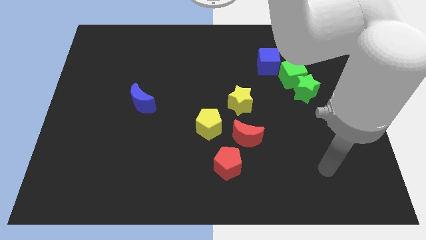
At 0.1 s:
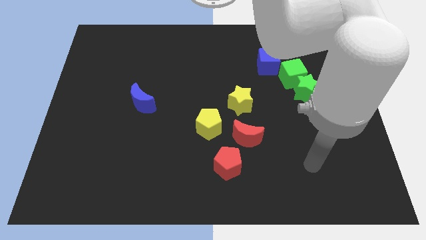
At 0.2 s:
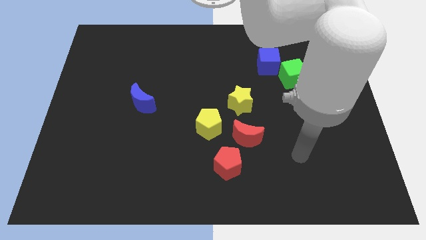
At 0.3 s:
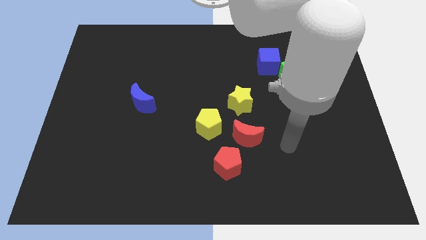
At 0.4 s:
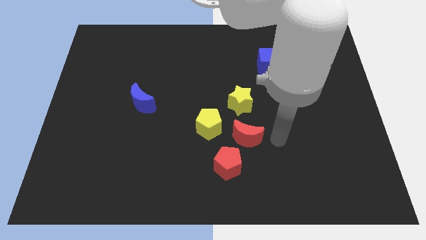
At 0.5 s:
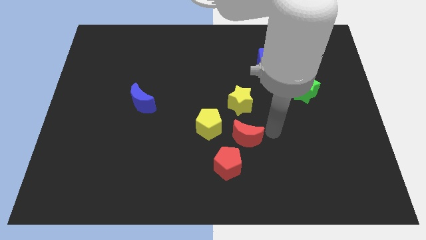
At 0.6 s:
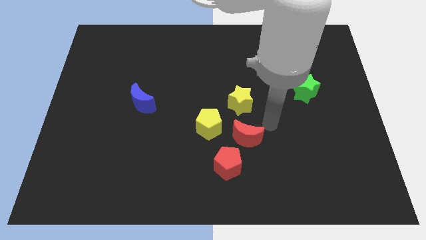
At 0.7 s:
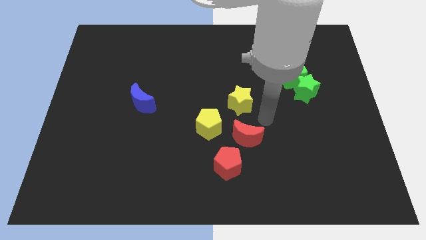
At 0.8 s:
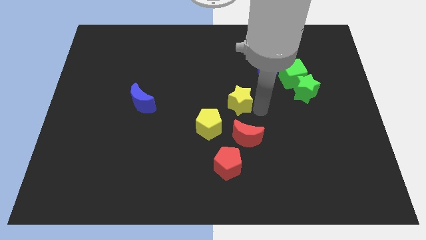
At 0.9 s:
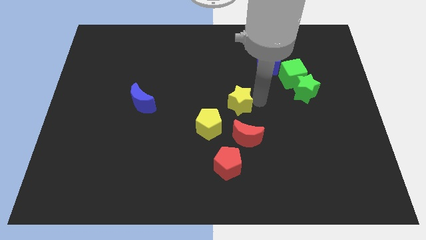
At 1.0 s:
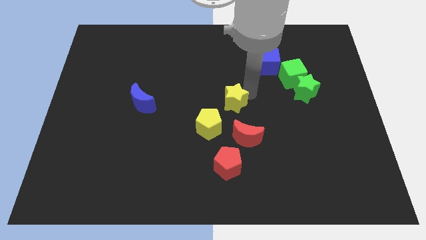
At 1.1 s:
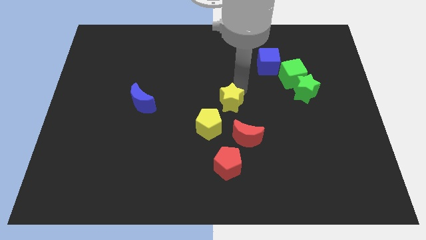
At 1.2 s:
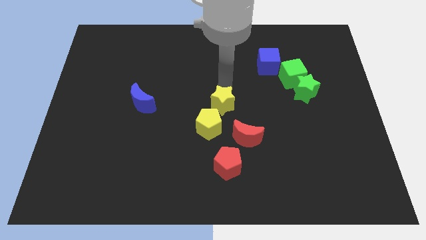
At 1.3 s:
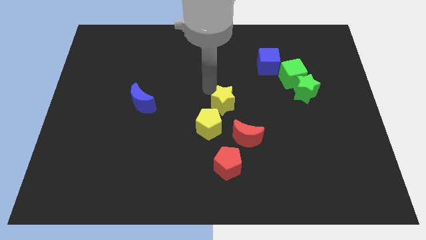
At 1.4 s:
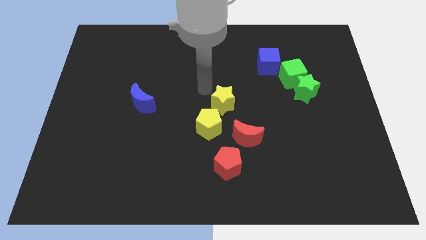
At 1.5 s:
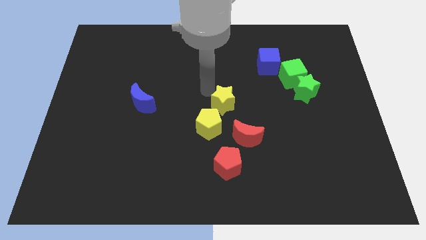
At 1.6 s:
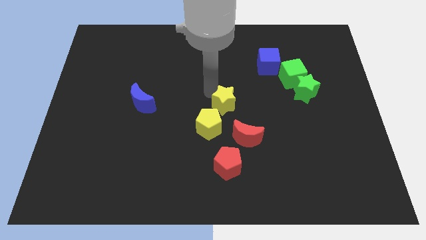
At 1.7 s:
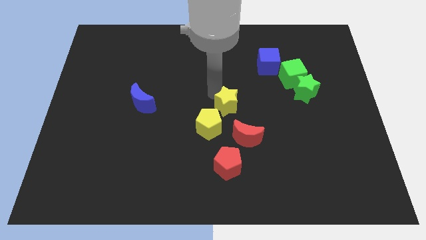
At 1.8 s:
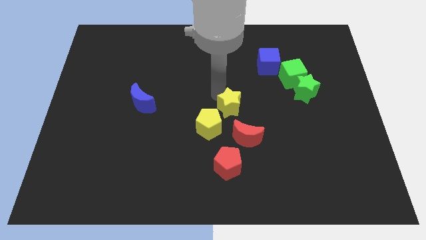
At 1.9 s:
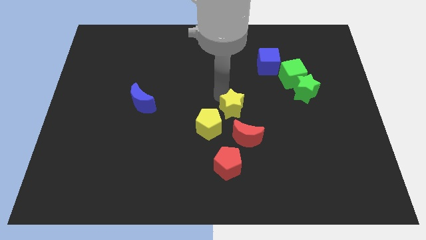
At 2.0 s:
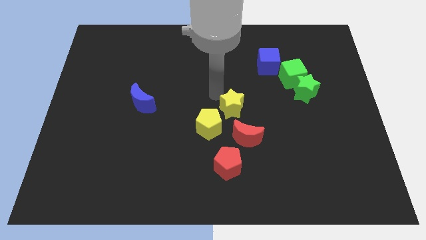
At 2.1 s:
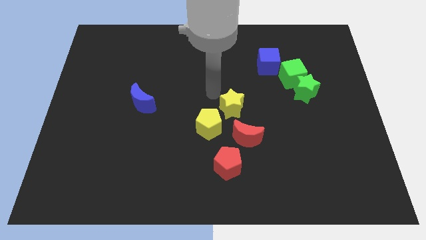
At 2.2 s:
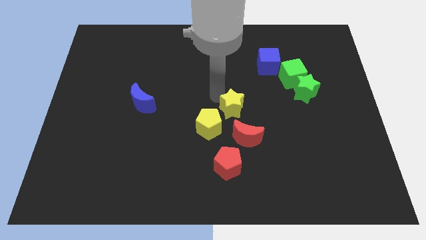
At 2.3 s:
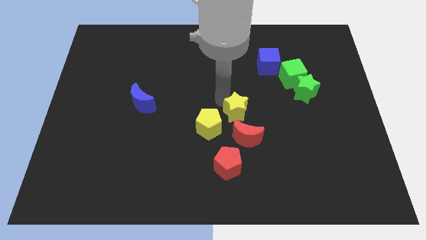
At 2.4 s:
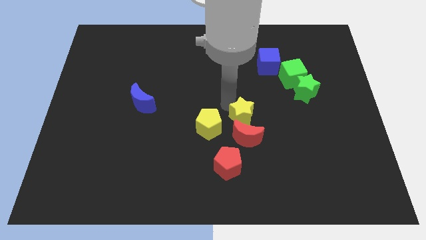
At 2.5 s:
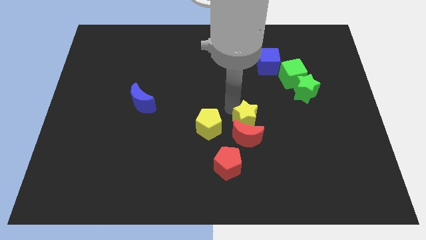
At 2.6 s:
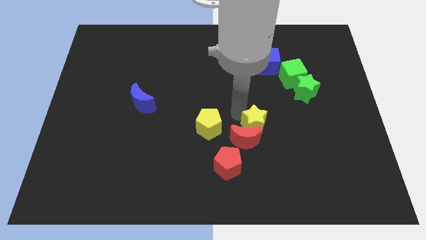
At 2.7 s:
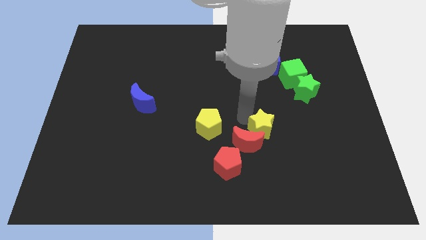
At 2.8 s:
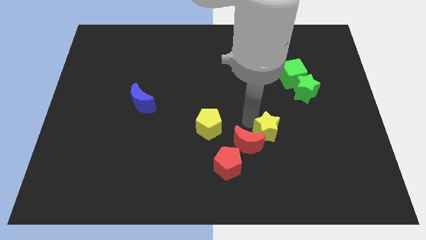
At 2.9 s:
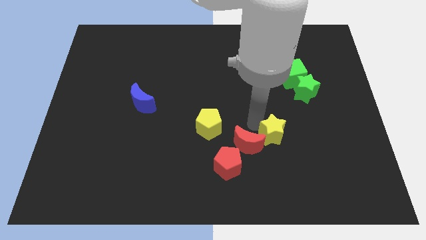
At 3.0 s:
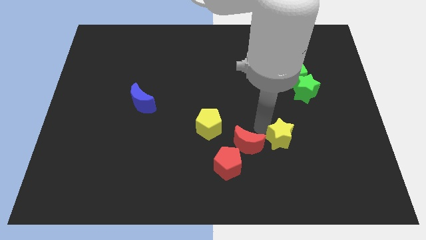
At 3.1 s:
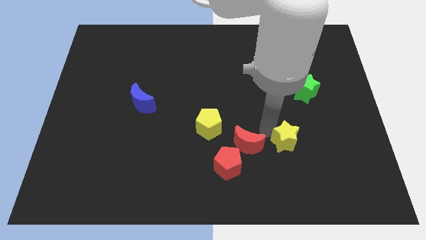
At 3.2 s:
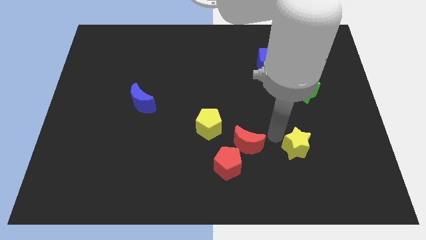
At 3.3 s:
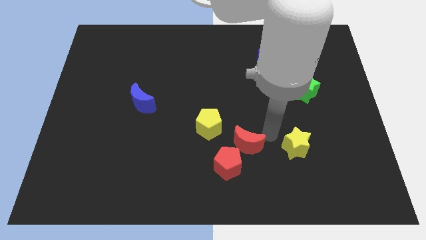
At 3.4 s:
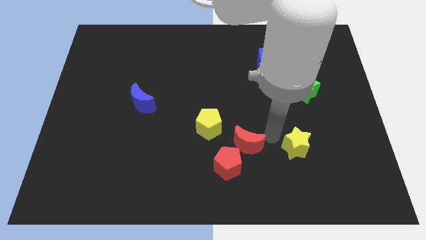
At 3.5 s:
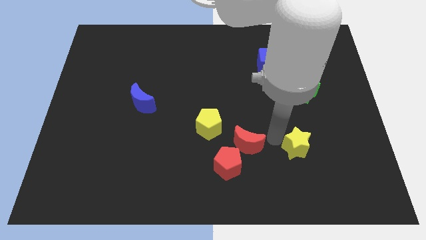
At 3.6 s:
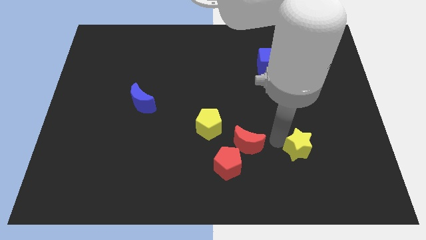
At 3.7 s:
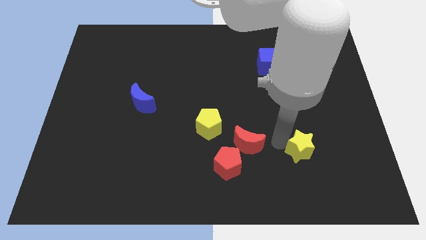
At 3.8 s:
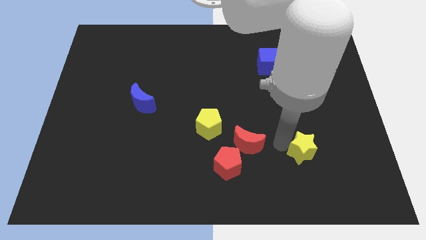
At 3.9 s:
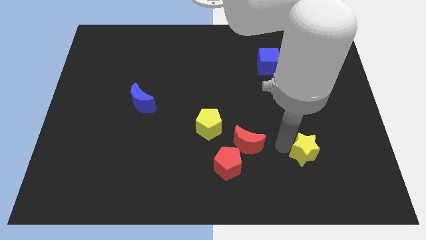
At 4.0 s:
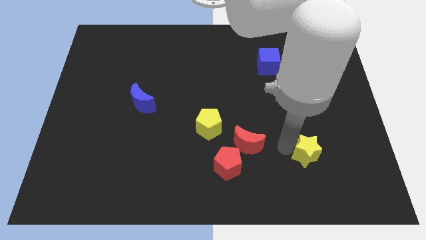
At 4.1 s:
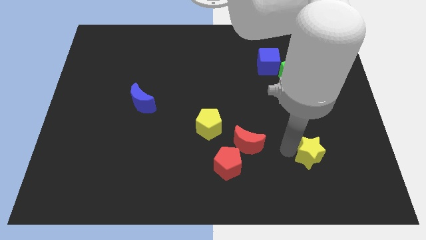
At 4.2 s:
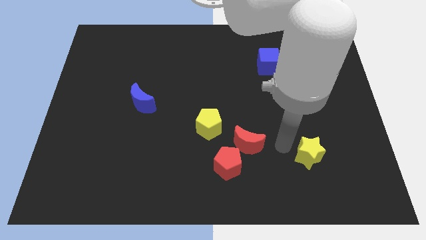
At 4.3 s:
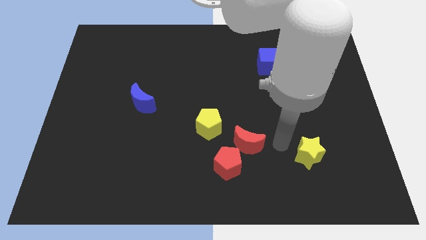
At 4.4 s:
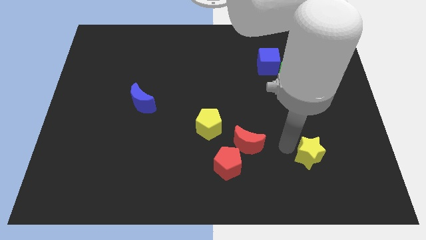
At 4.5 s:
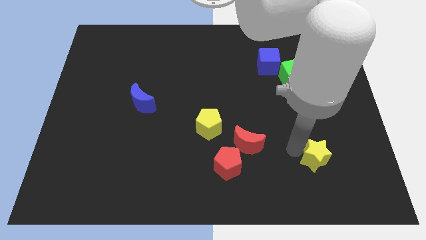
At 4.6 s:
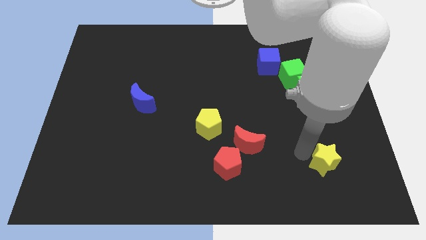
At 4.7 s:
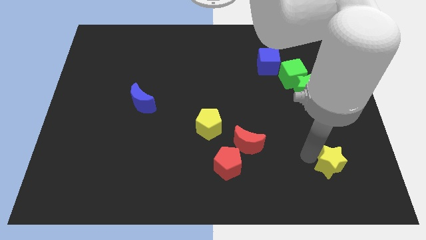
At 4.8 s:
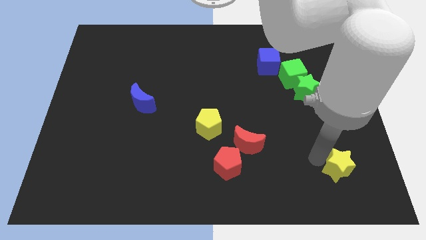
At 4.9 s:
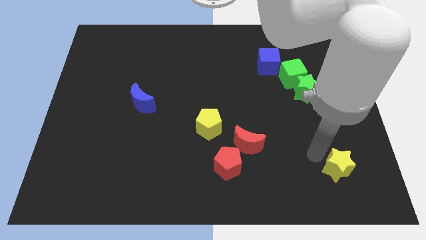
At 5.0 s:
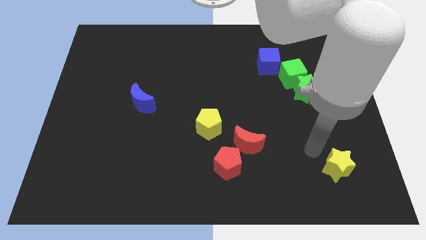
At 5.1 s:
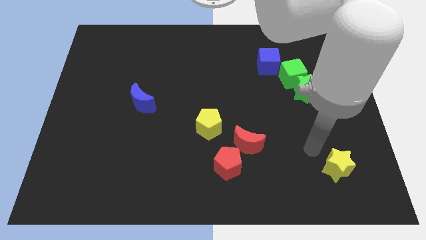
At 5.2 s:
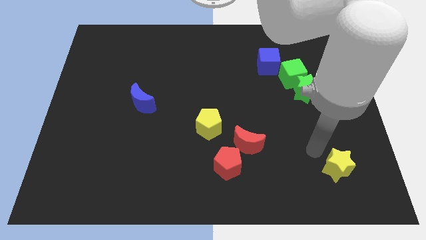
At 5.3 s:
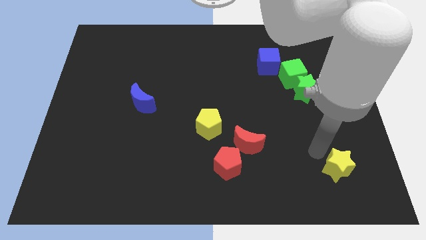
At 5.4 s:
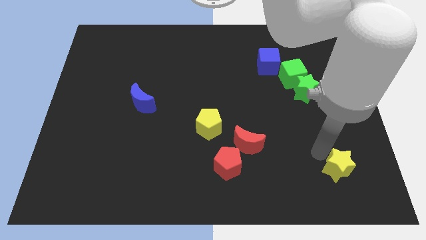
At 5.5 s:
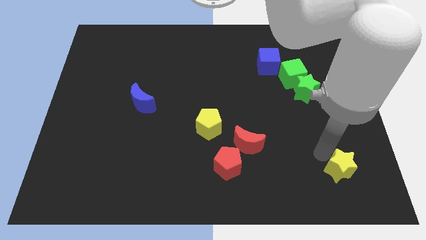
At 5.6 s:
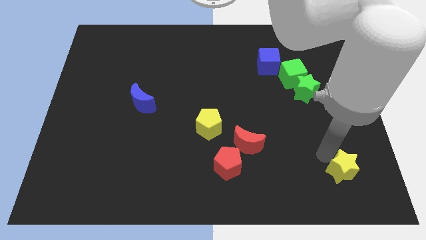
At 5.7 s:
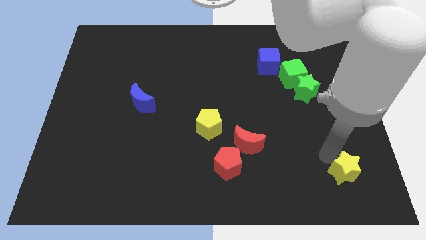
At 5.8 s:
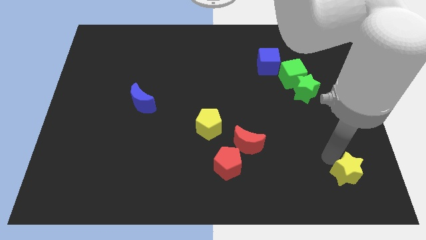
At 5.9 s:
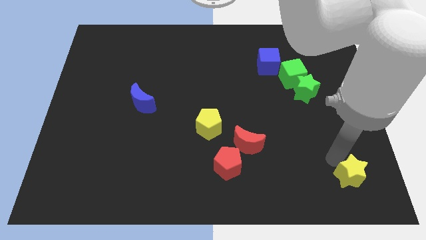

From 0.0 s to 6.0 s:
put the yellow star to the bottom right of the board

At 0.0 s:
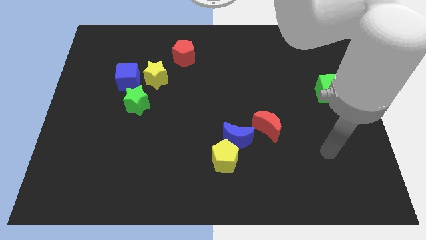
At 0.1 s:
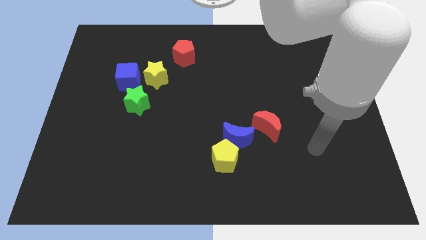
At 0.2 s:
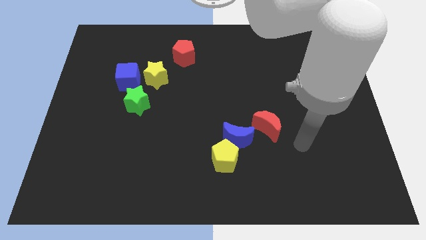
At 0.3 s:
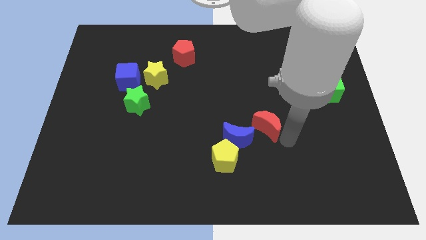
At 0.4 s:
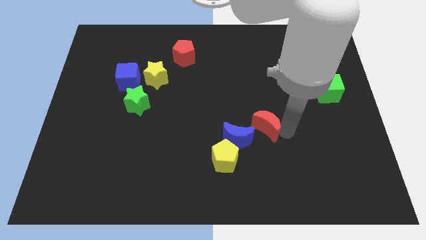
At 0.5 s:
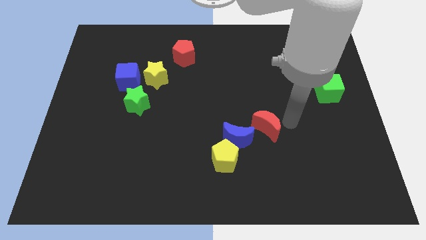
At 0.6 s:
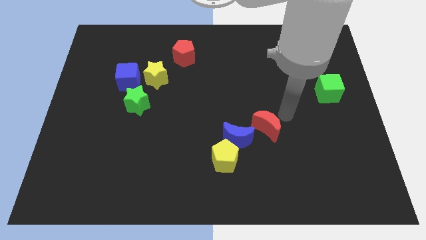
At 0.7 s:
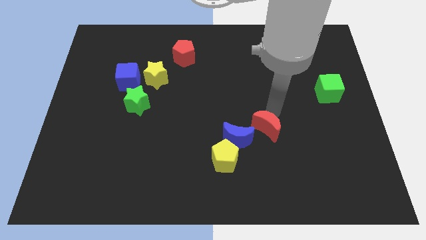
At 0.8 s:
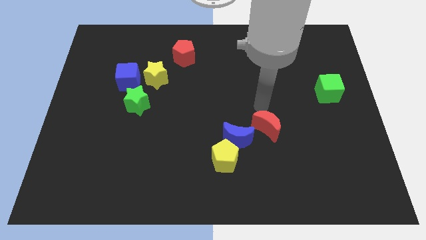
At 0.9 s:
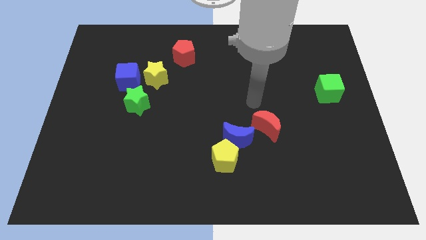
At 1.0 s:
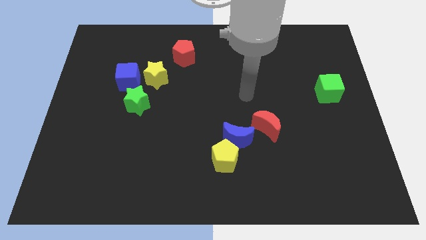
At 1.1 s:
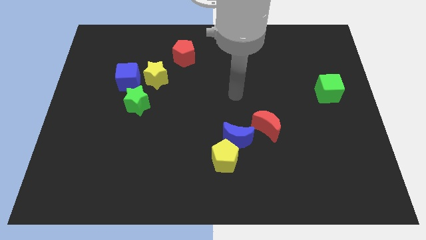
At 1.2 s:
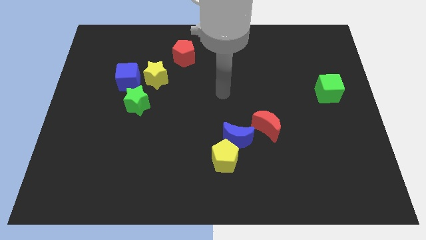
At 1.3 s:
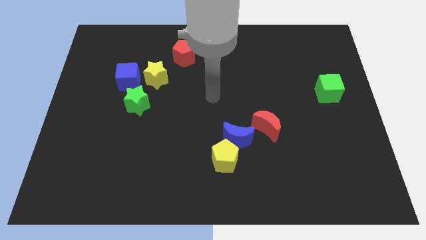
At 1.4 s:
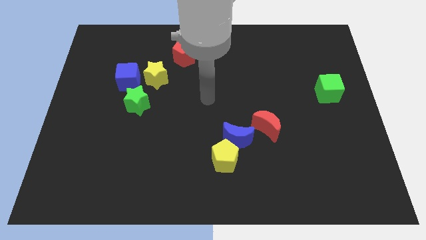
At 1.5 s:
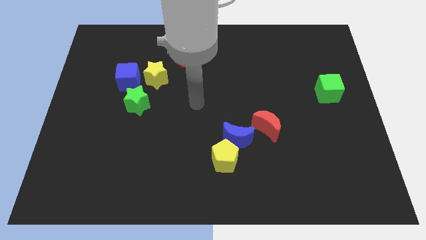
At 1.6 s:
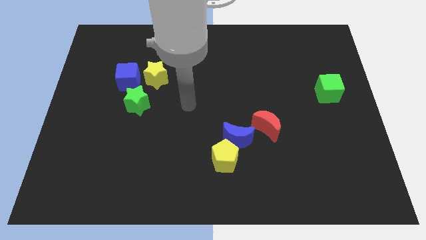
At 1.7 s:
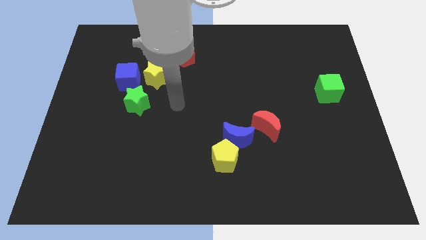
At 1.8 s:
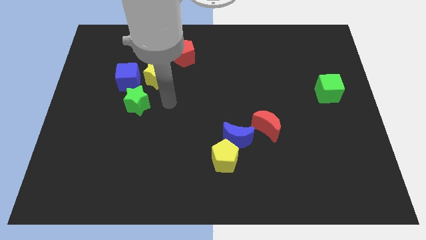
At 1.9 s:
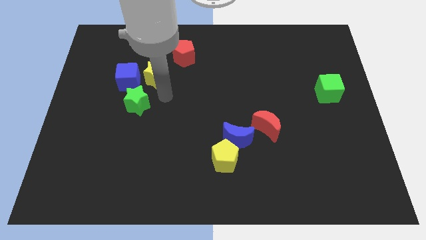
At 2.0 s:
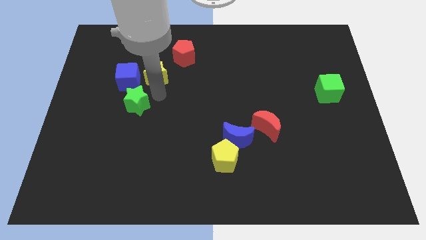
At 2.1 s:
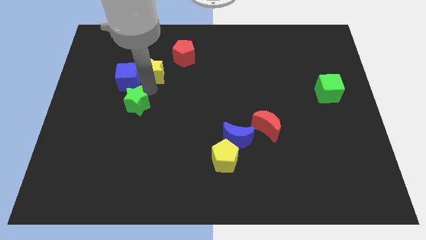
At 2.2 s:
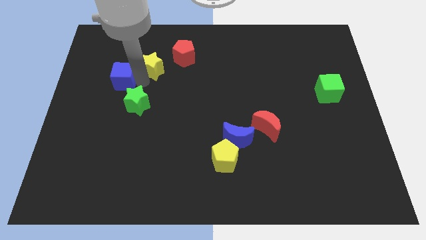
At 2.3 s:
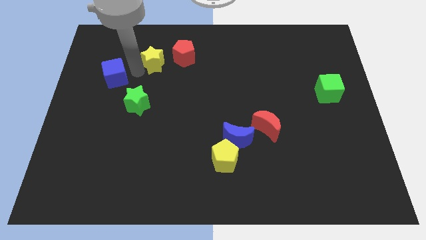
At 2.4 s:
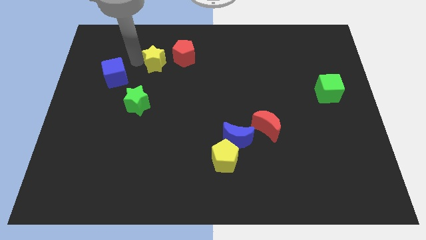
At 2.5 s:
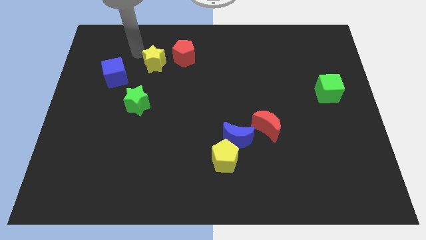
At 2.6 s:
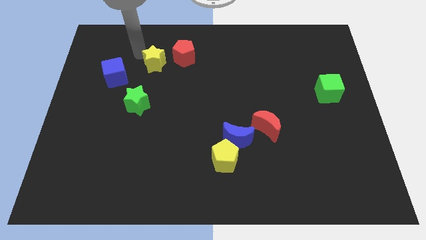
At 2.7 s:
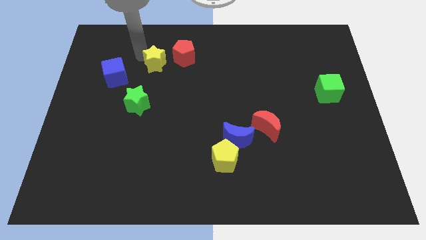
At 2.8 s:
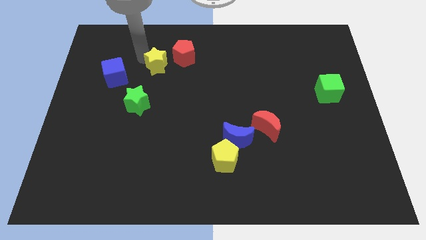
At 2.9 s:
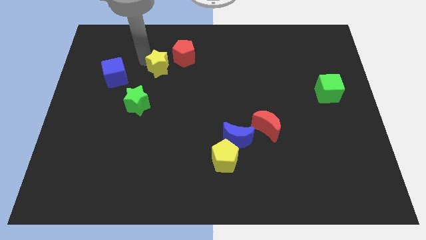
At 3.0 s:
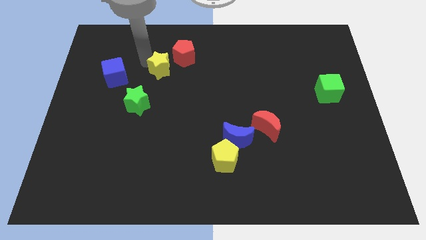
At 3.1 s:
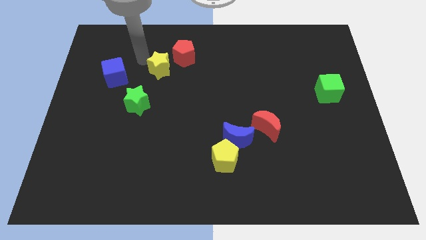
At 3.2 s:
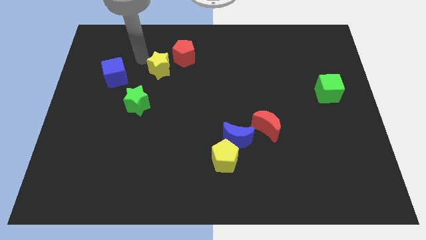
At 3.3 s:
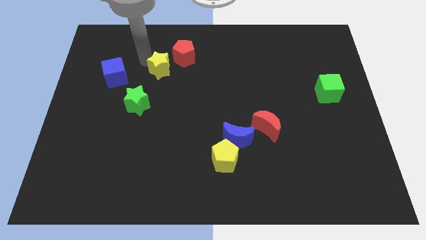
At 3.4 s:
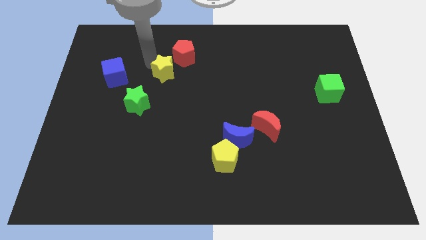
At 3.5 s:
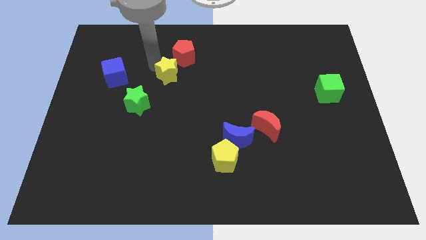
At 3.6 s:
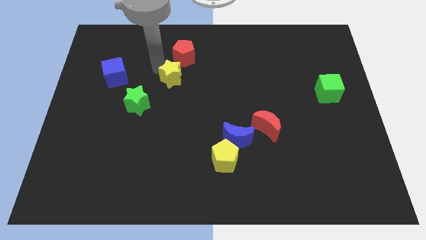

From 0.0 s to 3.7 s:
push the yellow star to the middle
